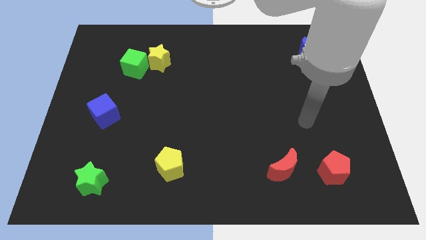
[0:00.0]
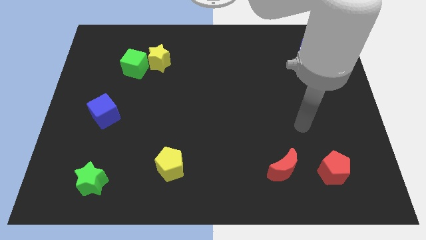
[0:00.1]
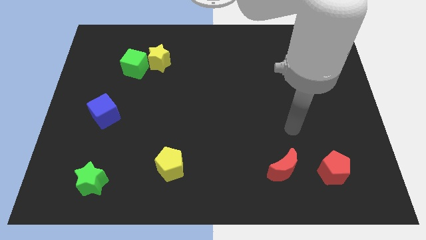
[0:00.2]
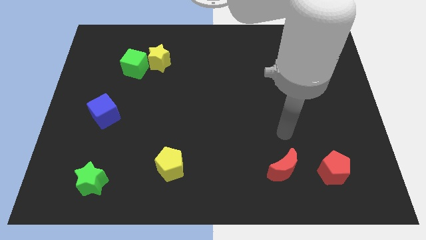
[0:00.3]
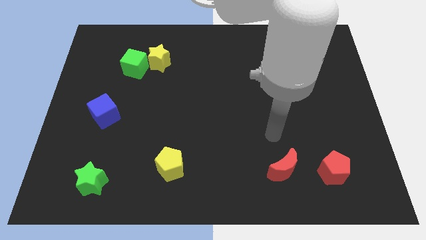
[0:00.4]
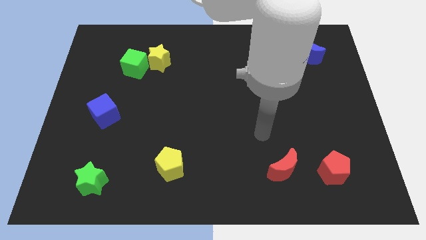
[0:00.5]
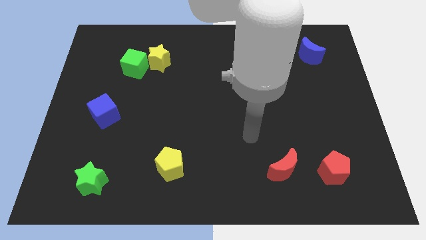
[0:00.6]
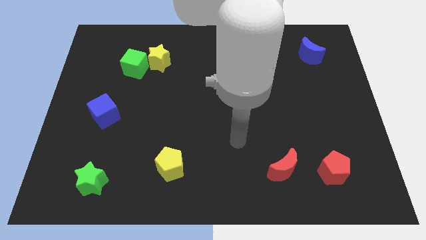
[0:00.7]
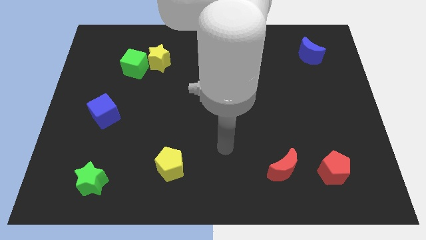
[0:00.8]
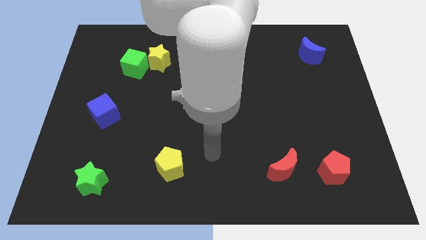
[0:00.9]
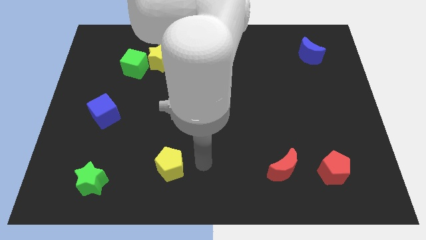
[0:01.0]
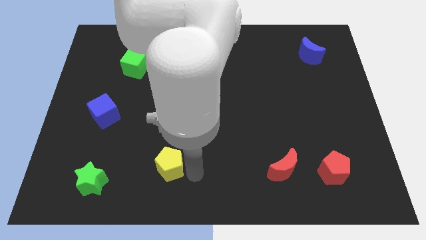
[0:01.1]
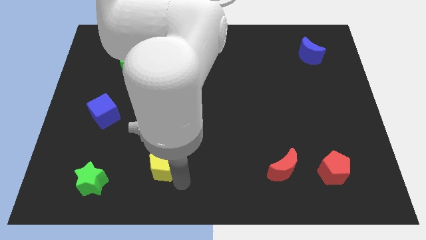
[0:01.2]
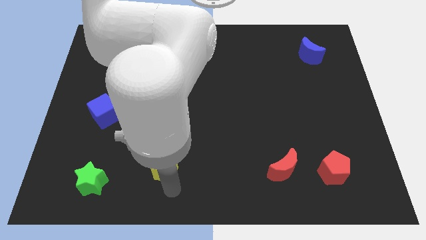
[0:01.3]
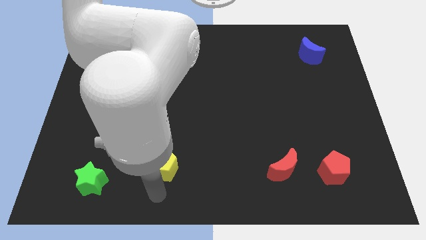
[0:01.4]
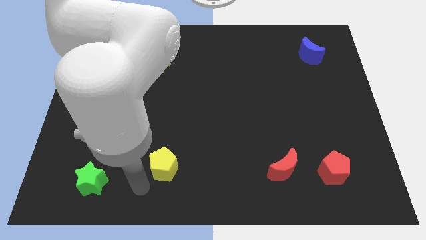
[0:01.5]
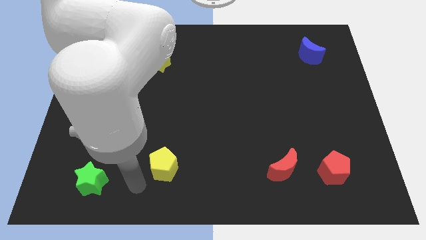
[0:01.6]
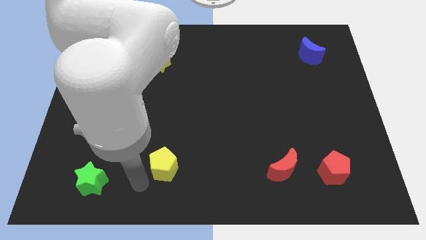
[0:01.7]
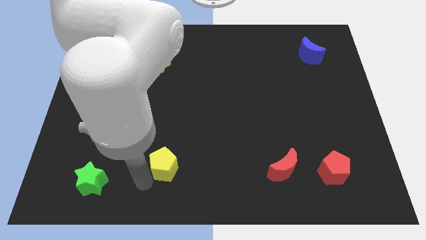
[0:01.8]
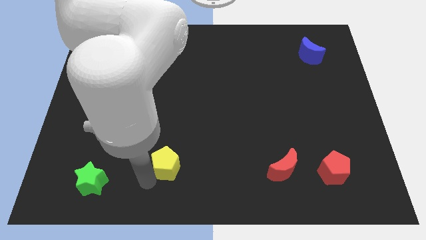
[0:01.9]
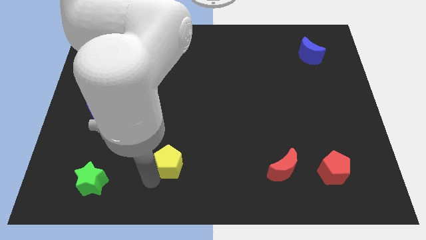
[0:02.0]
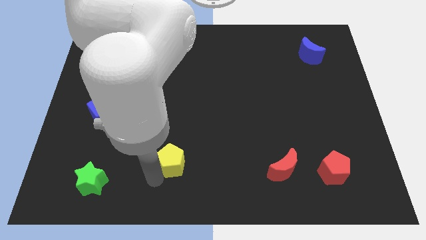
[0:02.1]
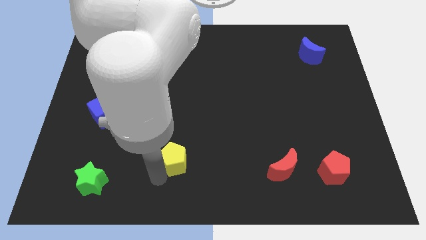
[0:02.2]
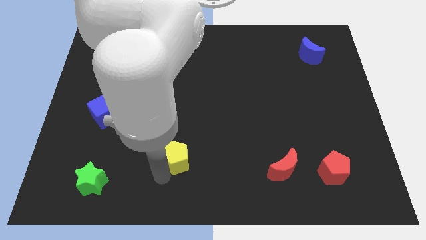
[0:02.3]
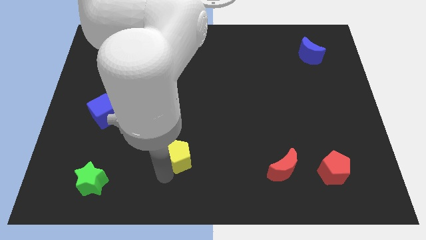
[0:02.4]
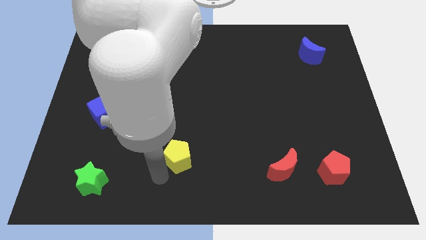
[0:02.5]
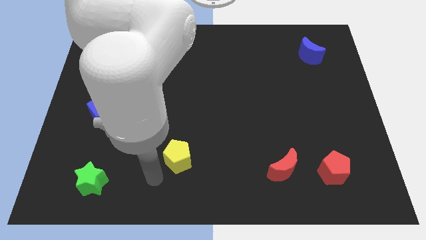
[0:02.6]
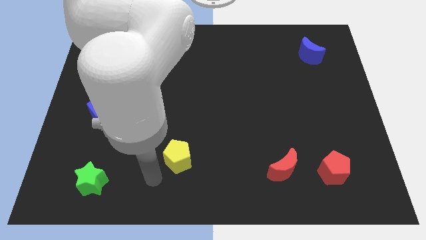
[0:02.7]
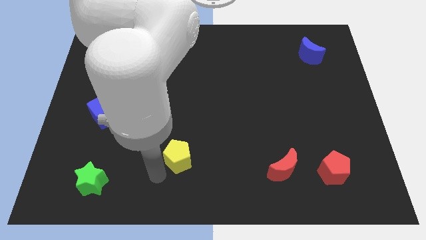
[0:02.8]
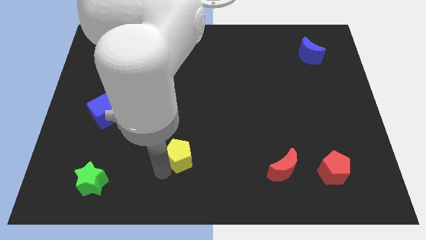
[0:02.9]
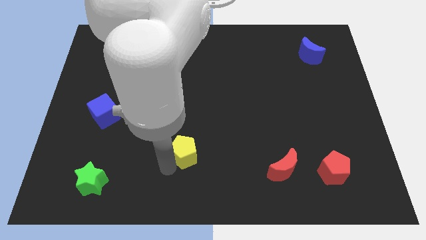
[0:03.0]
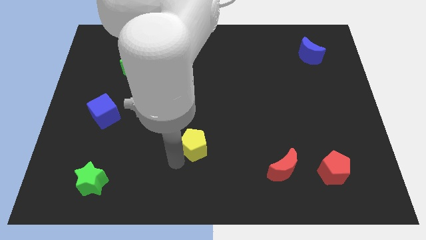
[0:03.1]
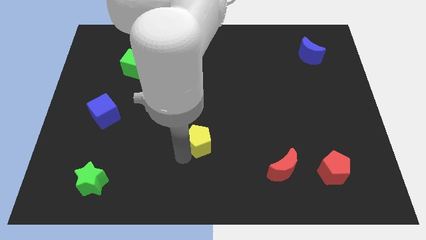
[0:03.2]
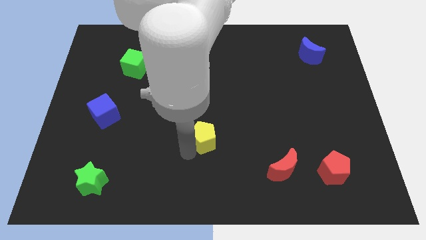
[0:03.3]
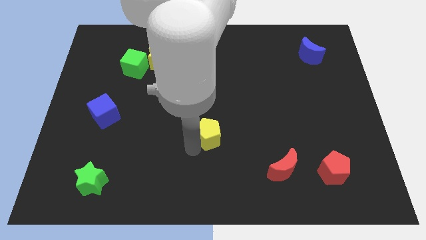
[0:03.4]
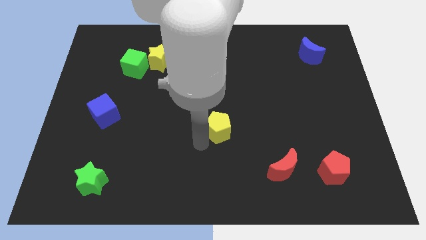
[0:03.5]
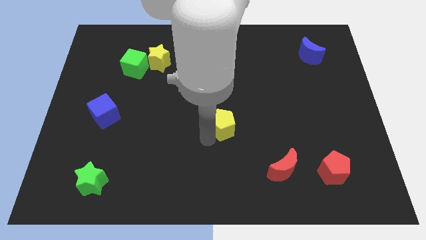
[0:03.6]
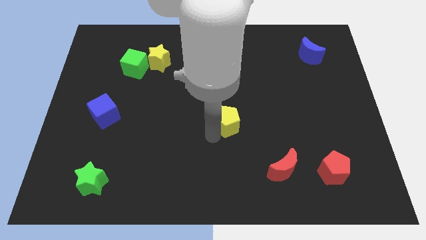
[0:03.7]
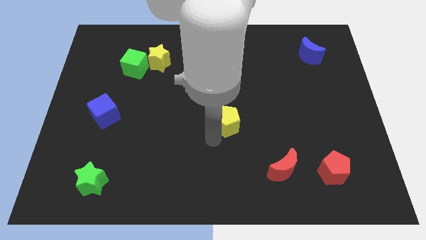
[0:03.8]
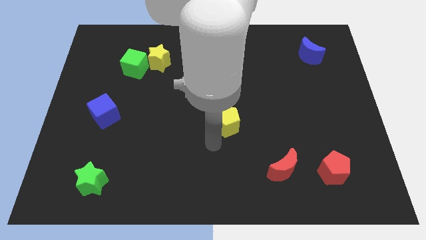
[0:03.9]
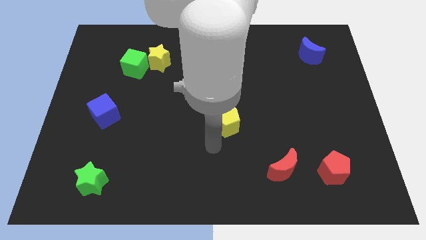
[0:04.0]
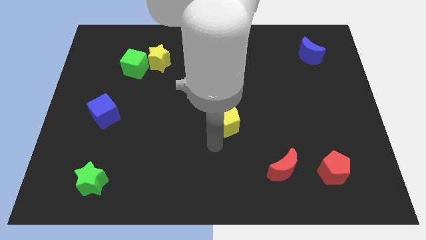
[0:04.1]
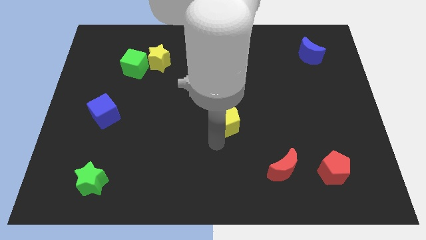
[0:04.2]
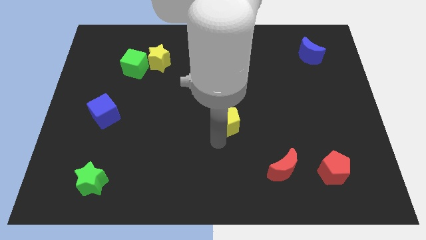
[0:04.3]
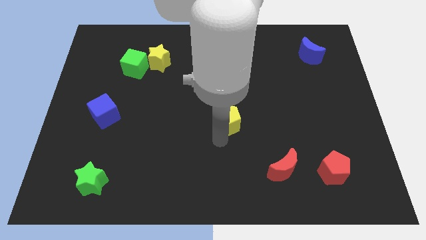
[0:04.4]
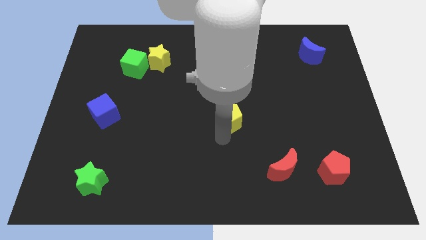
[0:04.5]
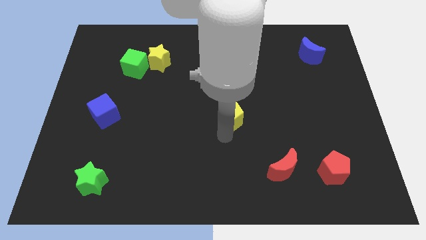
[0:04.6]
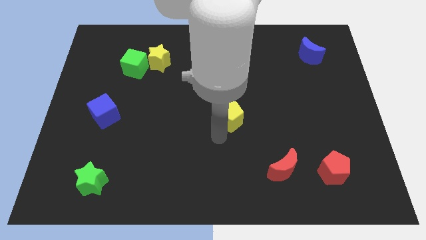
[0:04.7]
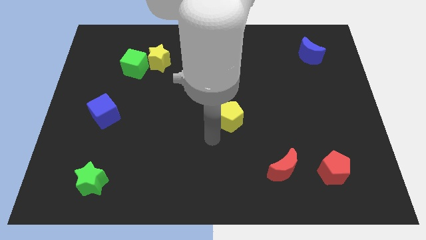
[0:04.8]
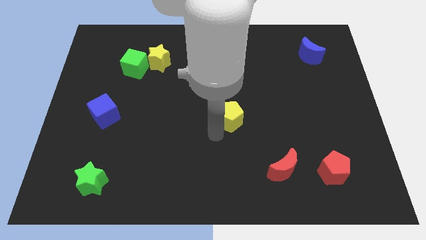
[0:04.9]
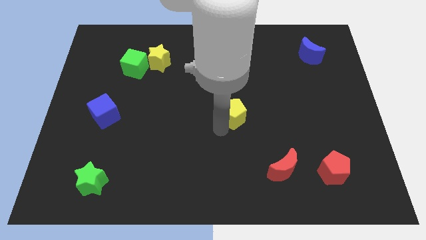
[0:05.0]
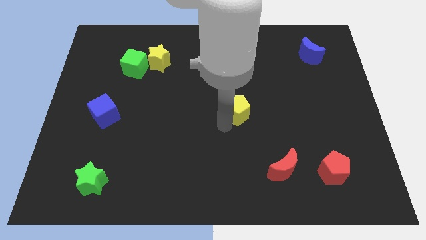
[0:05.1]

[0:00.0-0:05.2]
slide the yellow pentagon up and to the right diagonally

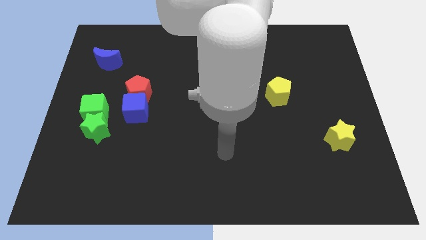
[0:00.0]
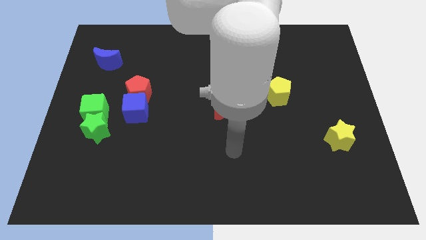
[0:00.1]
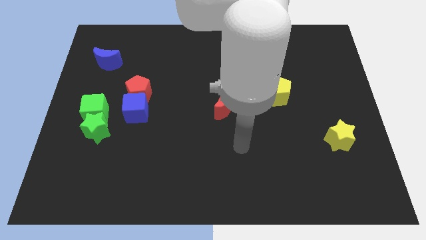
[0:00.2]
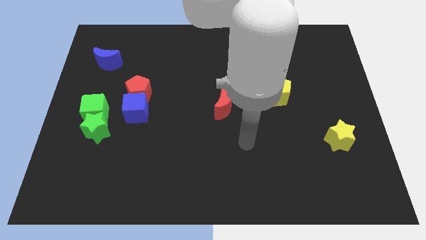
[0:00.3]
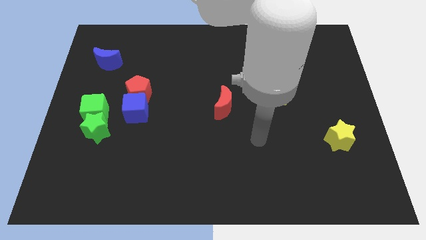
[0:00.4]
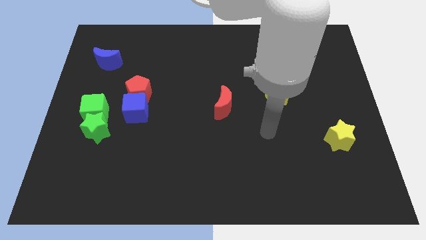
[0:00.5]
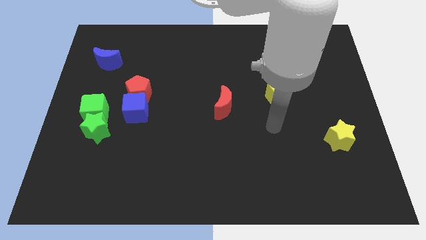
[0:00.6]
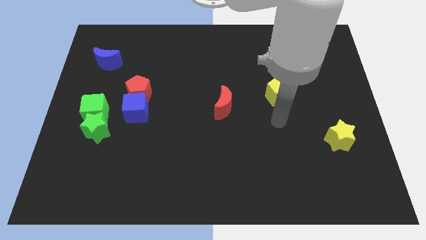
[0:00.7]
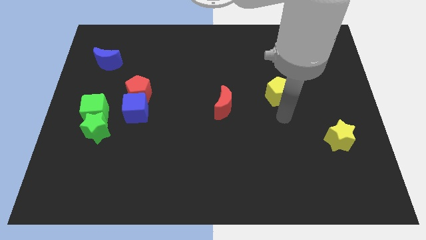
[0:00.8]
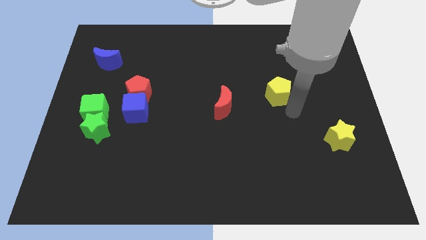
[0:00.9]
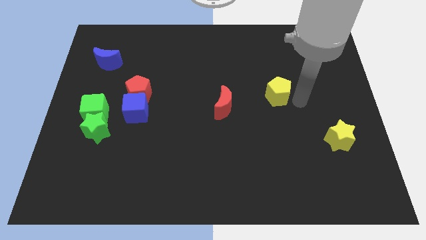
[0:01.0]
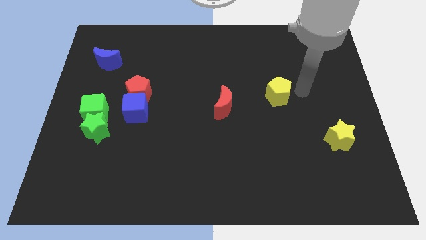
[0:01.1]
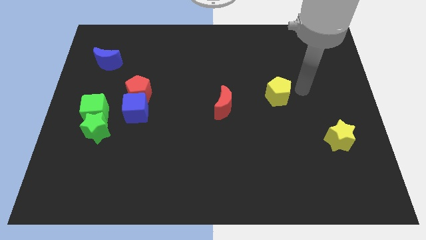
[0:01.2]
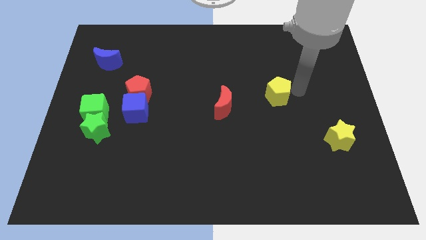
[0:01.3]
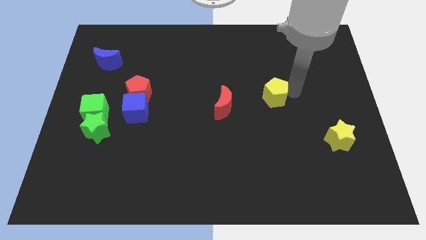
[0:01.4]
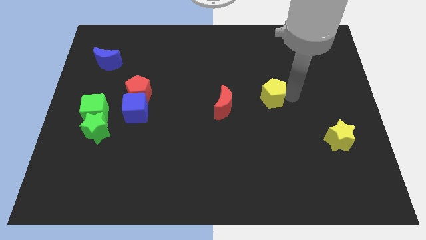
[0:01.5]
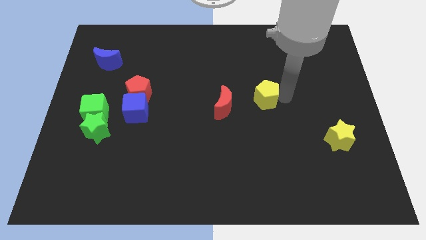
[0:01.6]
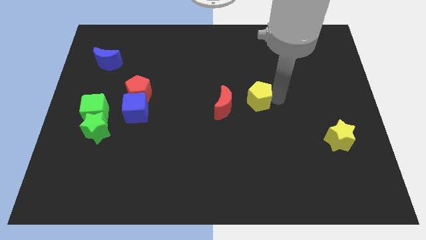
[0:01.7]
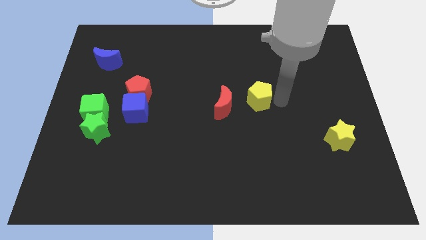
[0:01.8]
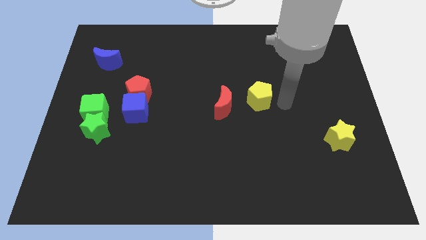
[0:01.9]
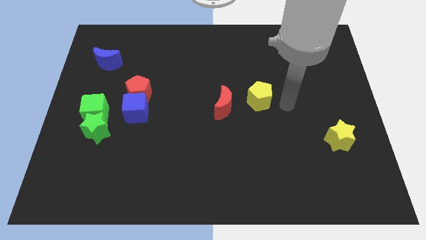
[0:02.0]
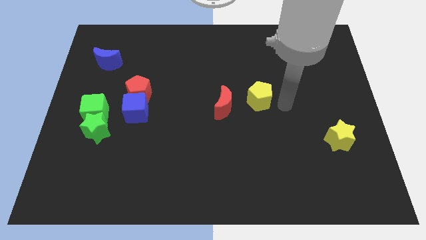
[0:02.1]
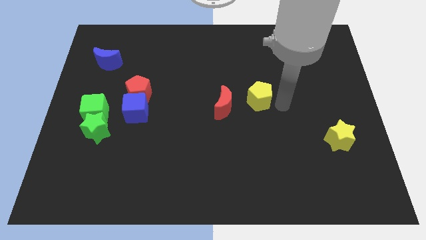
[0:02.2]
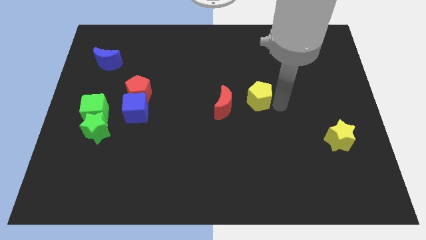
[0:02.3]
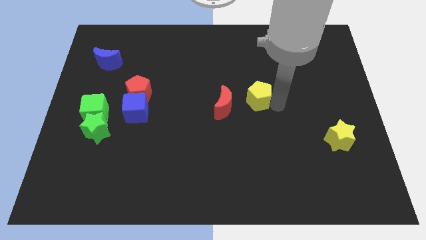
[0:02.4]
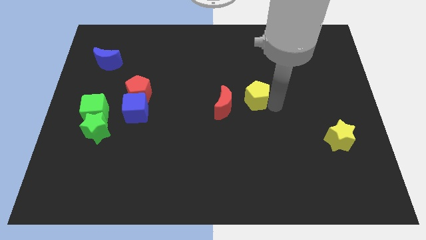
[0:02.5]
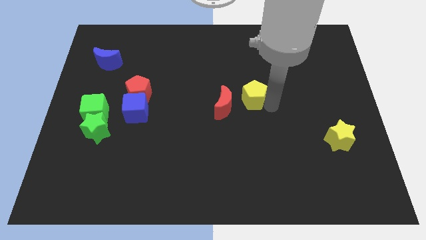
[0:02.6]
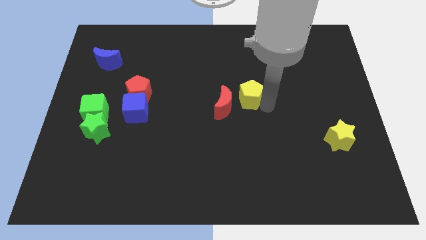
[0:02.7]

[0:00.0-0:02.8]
push the yellow pentagon left a bit
